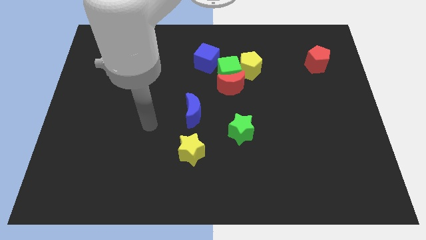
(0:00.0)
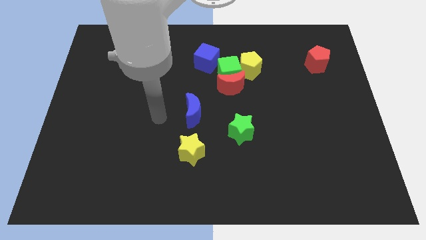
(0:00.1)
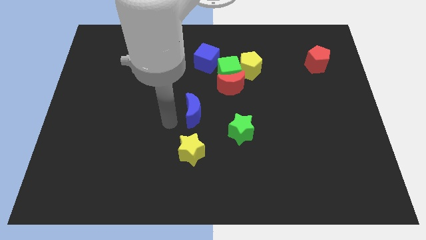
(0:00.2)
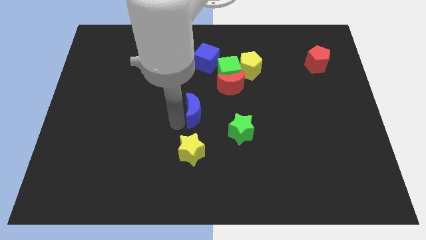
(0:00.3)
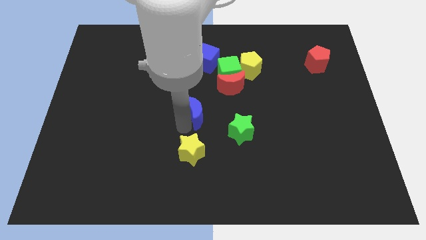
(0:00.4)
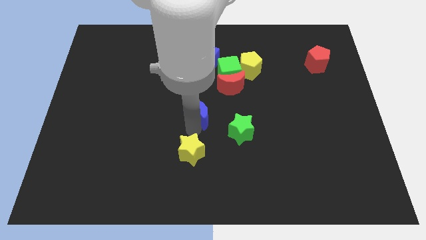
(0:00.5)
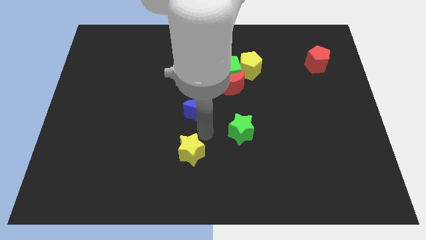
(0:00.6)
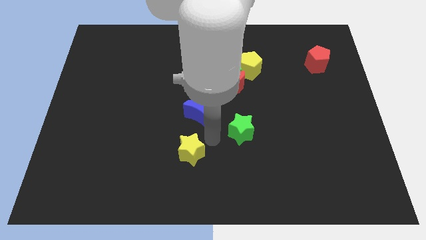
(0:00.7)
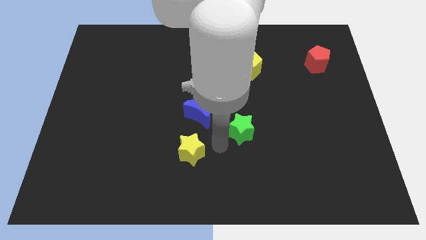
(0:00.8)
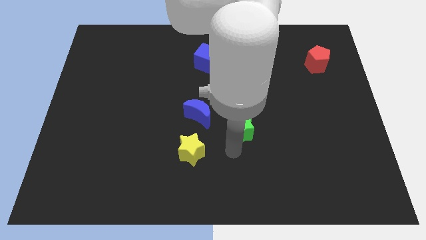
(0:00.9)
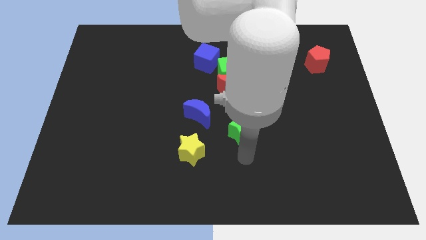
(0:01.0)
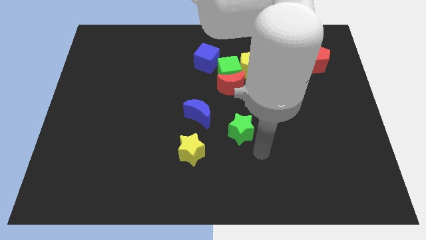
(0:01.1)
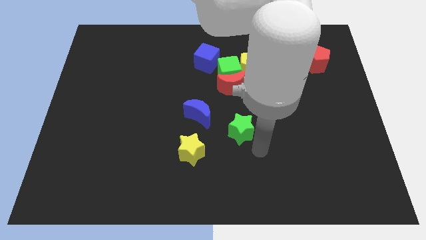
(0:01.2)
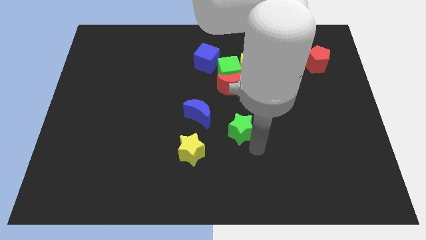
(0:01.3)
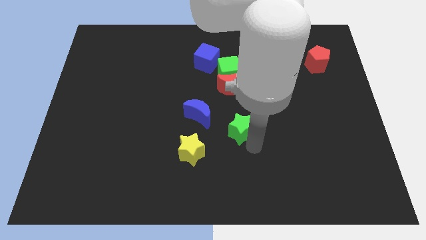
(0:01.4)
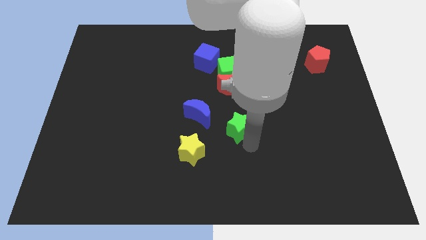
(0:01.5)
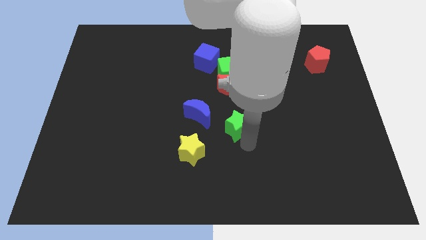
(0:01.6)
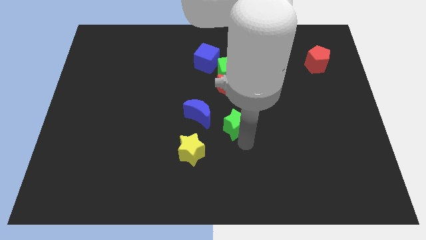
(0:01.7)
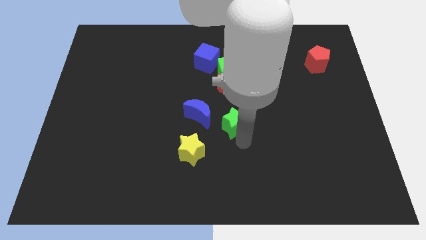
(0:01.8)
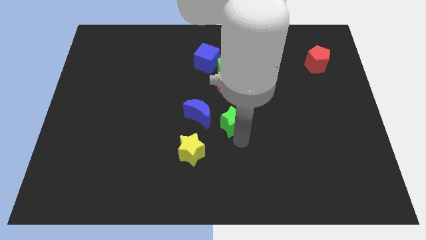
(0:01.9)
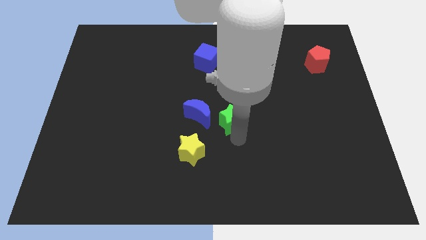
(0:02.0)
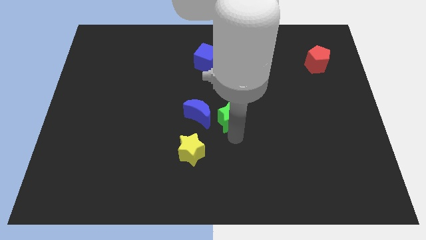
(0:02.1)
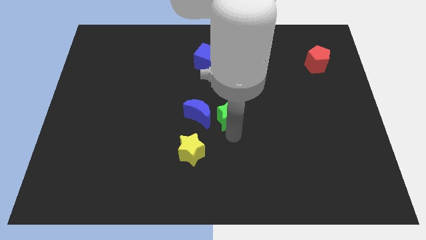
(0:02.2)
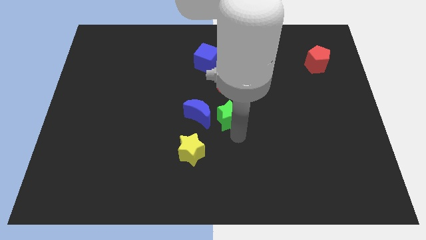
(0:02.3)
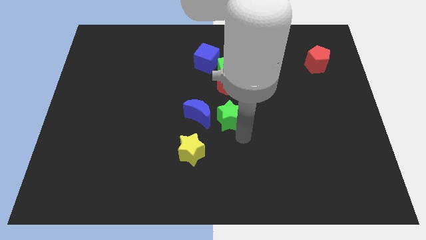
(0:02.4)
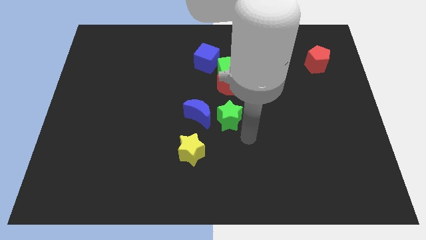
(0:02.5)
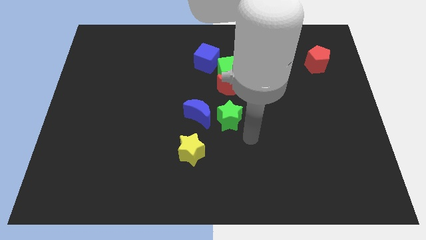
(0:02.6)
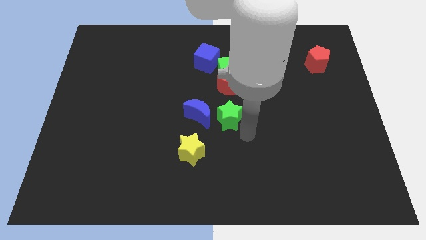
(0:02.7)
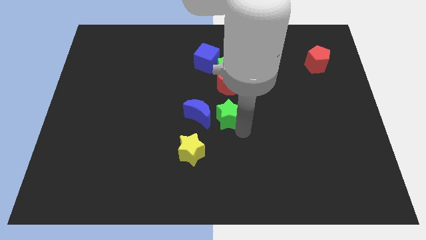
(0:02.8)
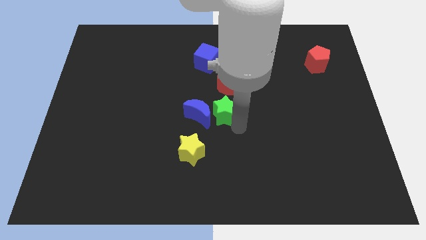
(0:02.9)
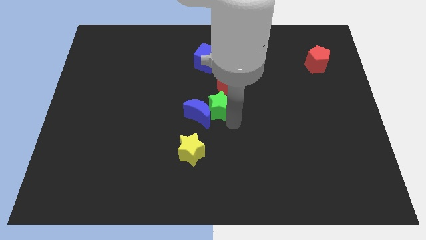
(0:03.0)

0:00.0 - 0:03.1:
move the green star a bit diagonally up and to the left

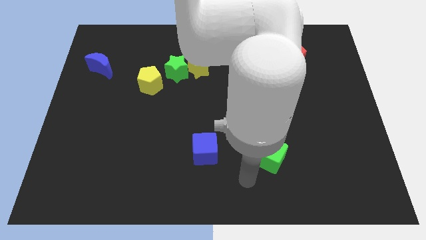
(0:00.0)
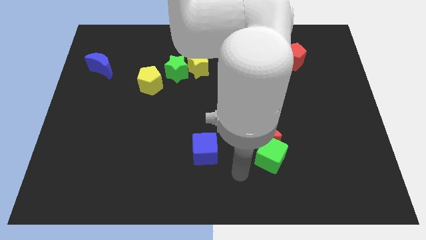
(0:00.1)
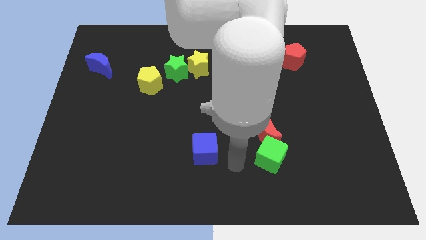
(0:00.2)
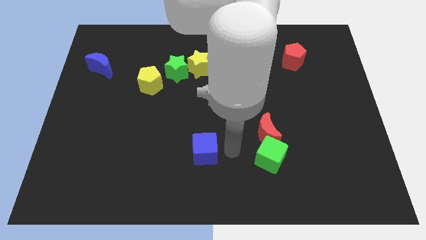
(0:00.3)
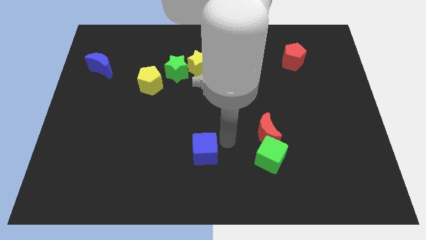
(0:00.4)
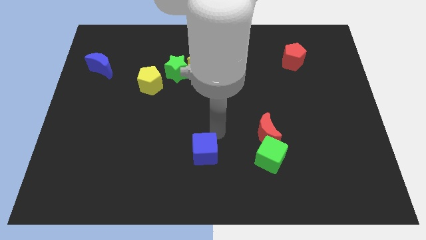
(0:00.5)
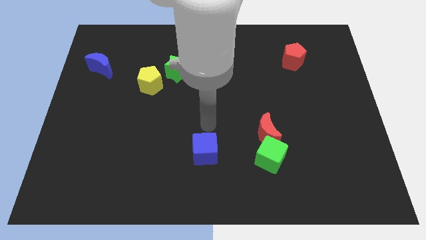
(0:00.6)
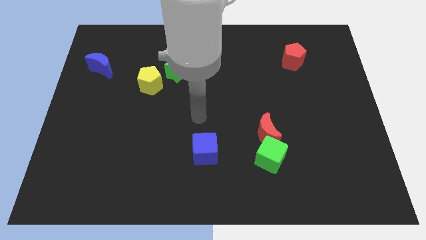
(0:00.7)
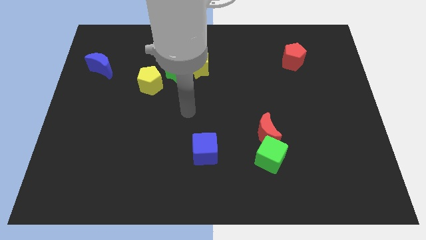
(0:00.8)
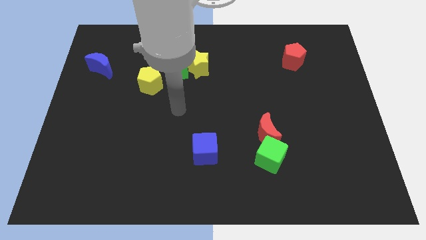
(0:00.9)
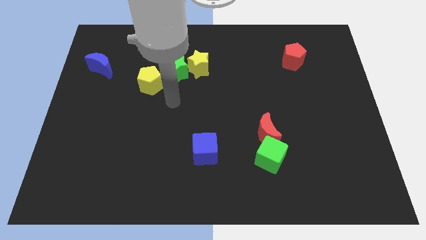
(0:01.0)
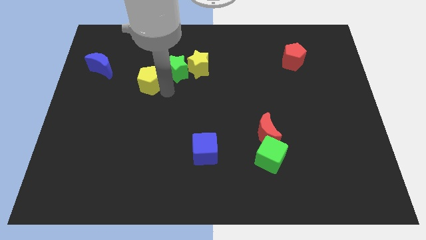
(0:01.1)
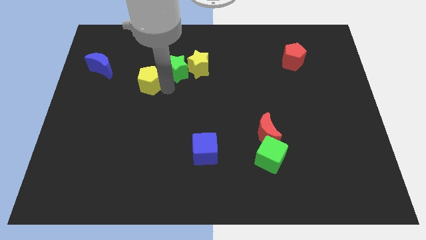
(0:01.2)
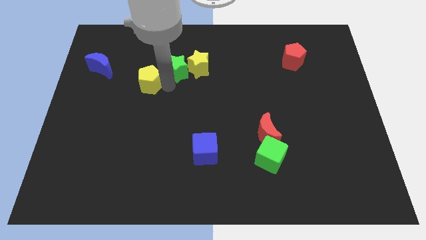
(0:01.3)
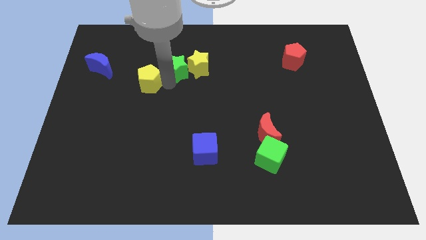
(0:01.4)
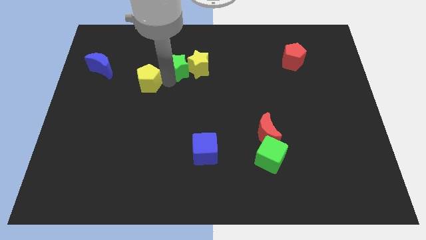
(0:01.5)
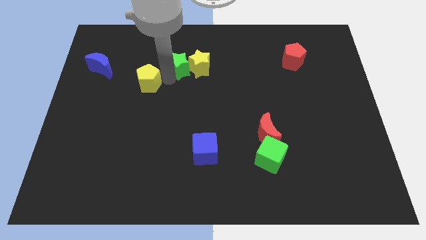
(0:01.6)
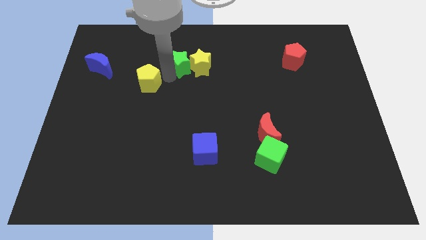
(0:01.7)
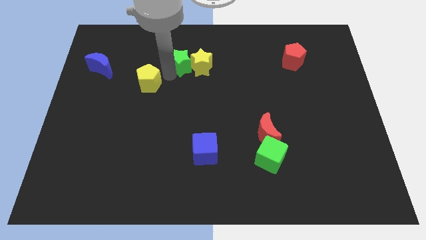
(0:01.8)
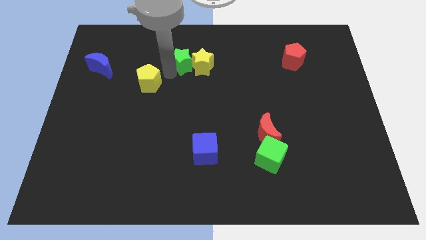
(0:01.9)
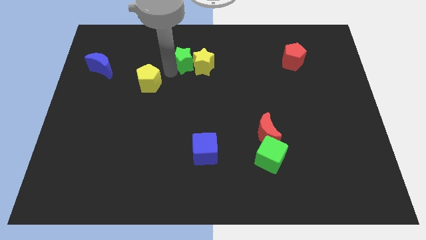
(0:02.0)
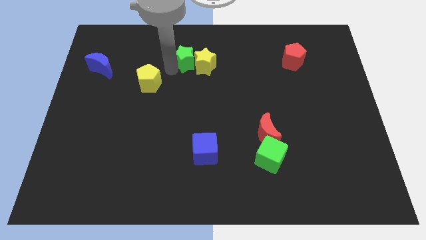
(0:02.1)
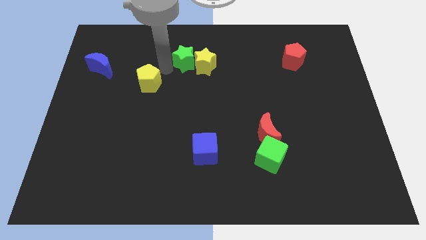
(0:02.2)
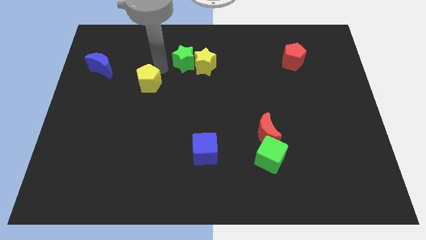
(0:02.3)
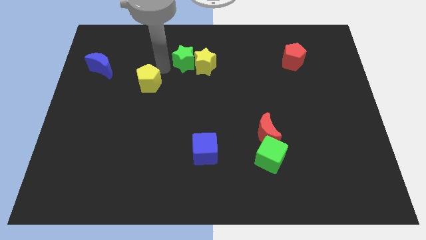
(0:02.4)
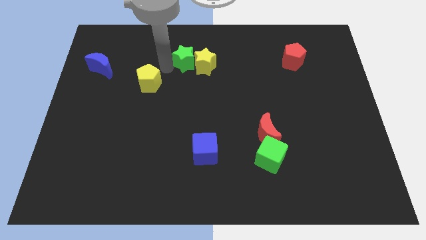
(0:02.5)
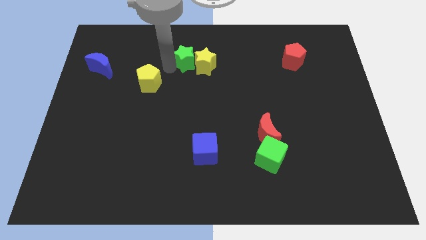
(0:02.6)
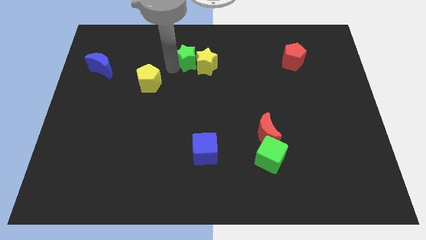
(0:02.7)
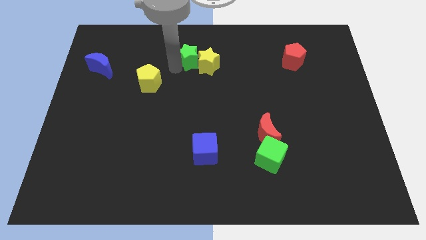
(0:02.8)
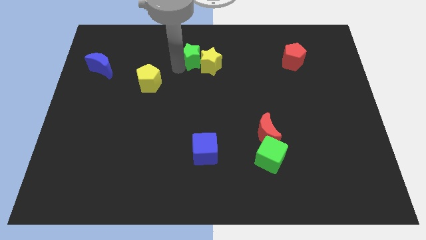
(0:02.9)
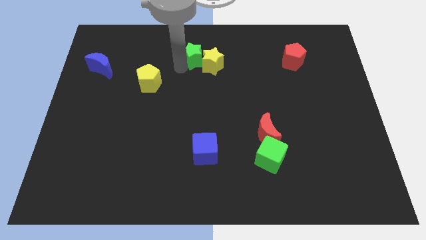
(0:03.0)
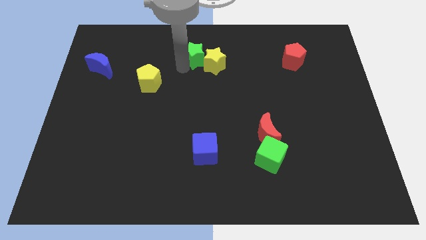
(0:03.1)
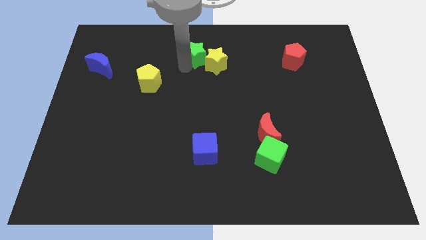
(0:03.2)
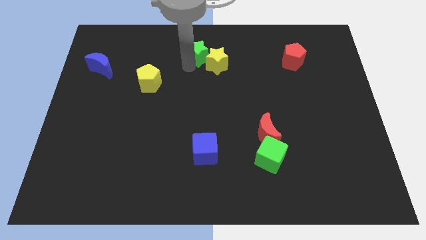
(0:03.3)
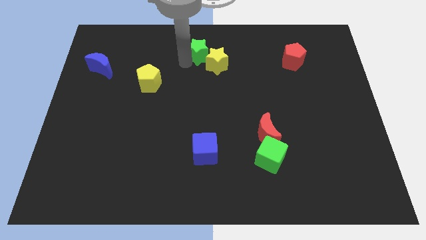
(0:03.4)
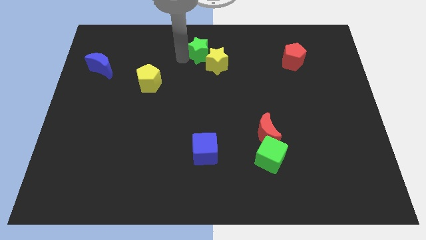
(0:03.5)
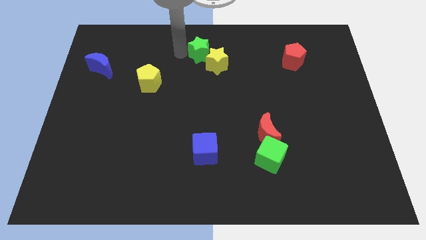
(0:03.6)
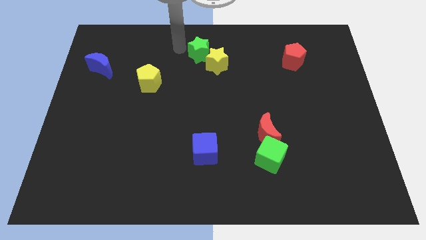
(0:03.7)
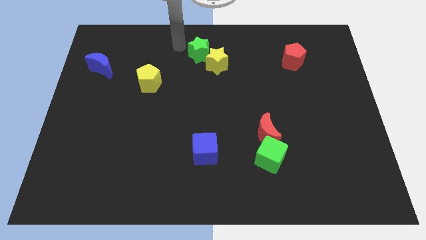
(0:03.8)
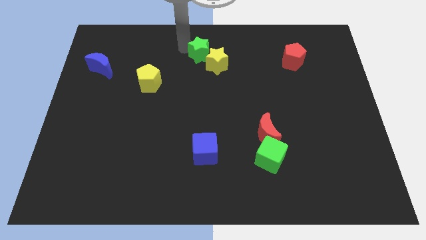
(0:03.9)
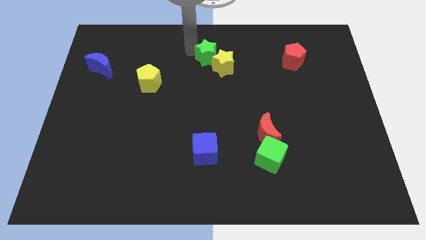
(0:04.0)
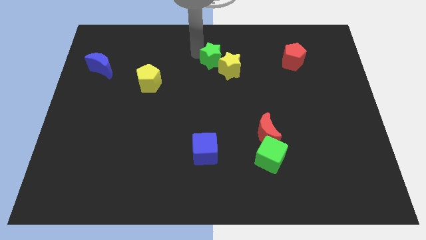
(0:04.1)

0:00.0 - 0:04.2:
slightly move the green star right
